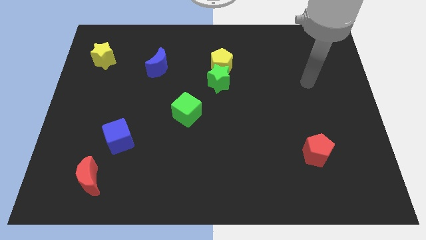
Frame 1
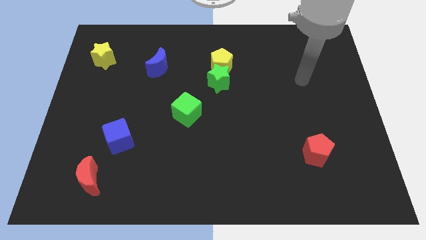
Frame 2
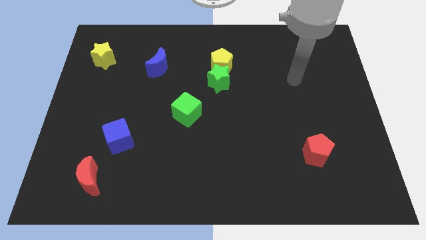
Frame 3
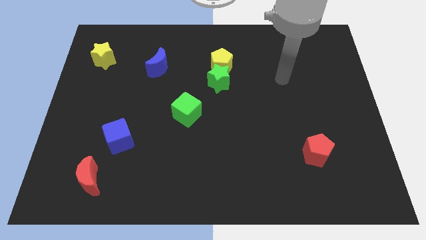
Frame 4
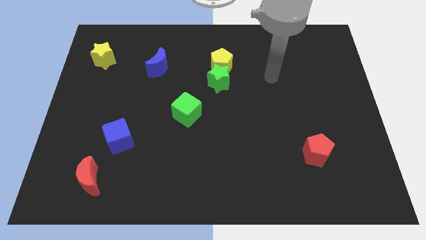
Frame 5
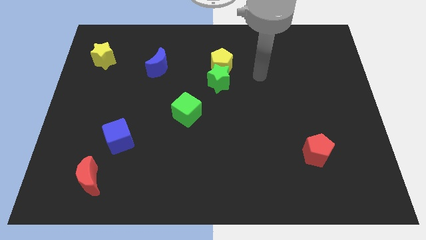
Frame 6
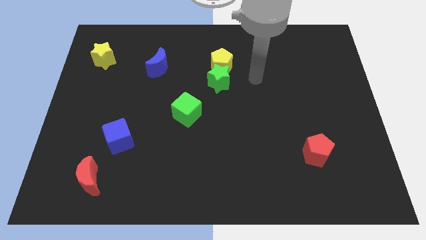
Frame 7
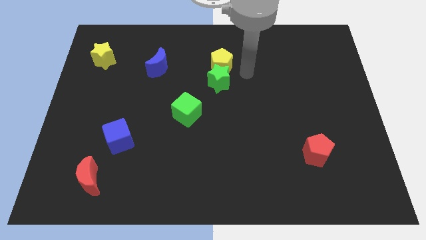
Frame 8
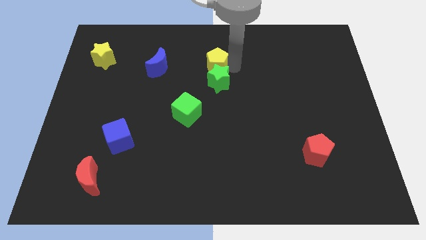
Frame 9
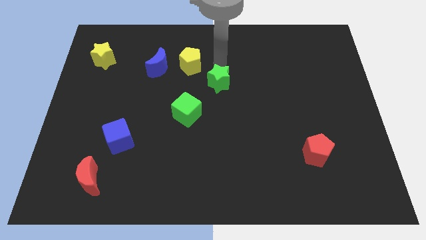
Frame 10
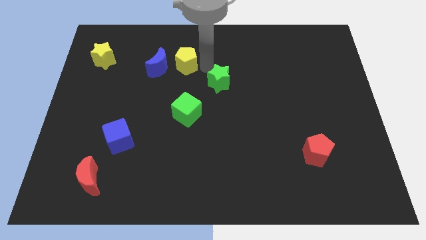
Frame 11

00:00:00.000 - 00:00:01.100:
move the green star away from the yellow pentagon

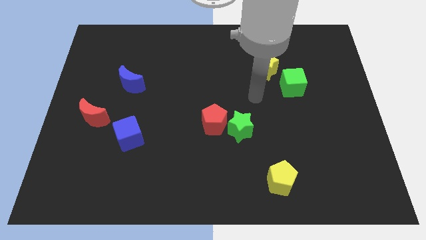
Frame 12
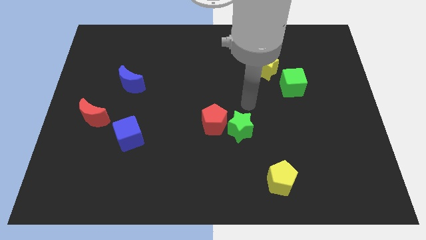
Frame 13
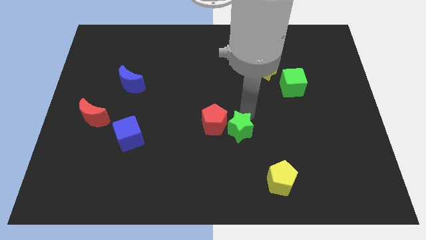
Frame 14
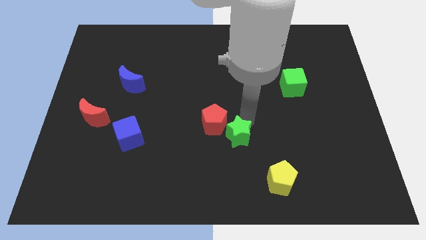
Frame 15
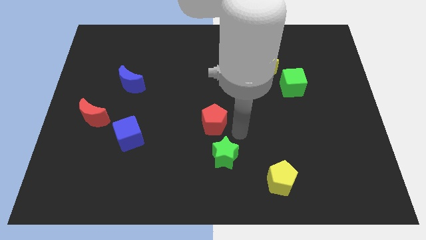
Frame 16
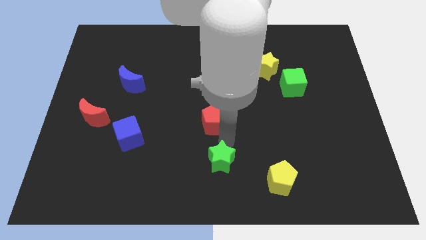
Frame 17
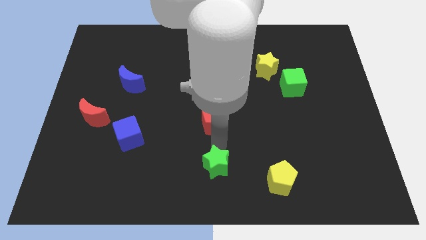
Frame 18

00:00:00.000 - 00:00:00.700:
move the red pentagon away from the green star

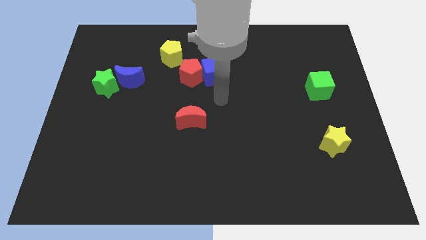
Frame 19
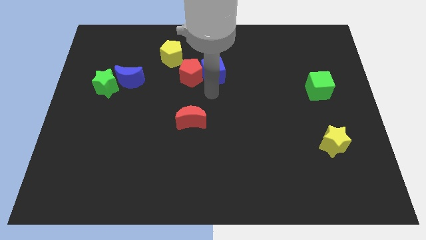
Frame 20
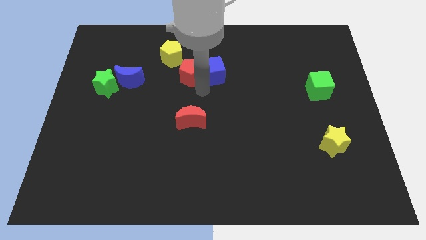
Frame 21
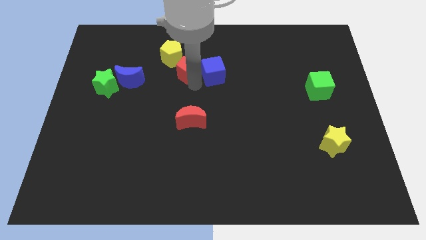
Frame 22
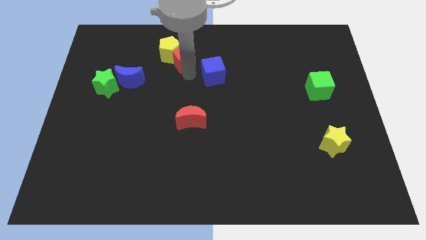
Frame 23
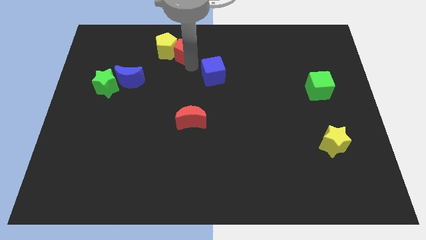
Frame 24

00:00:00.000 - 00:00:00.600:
move the blue cube away from the red pentagon

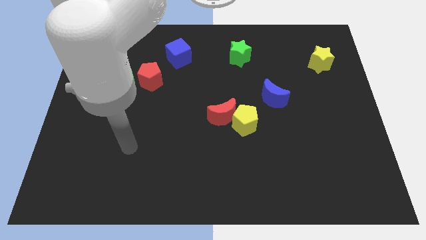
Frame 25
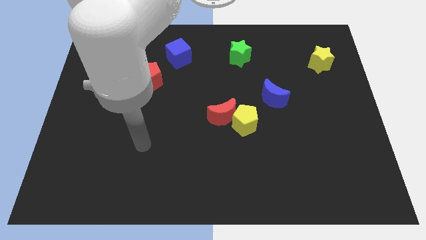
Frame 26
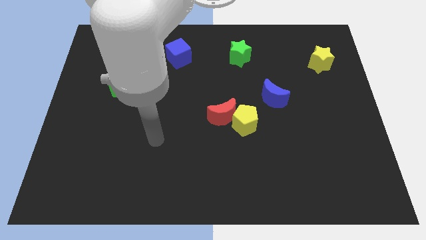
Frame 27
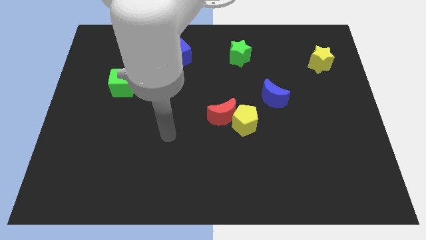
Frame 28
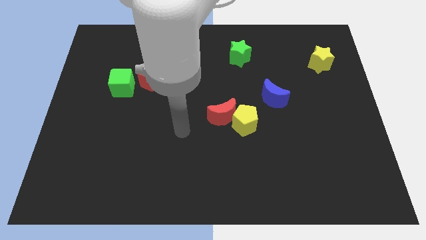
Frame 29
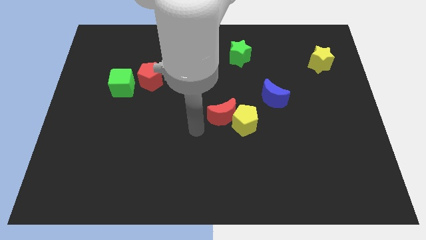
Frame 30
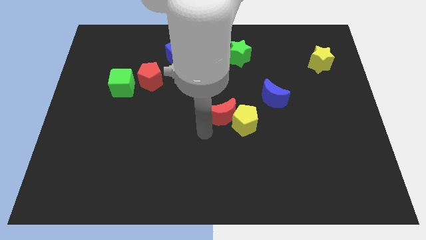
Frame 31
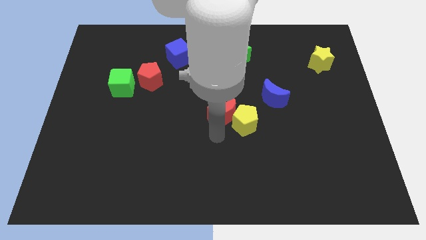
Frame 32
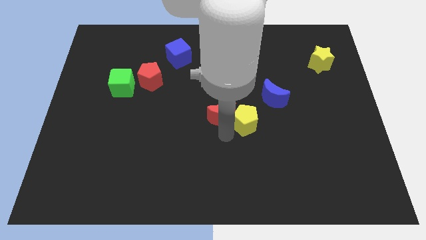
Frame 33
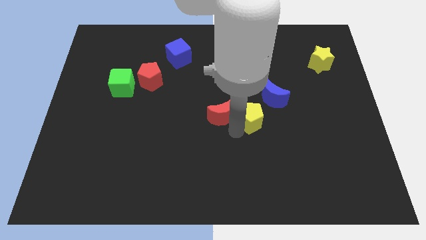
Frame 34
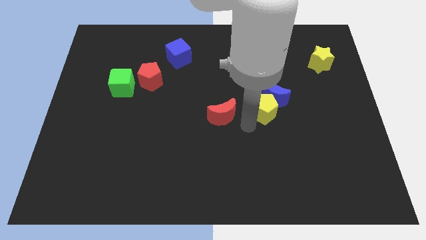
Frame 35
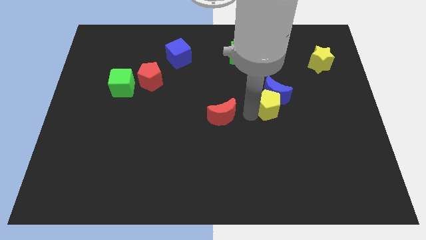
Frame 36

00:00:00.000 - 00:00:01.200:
pull the red moon apart from the yellow pentagon

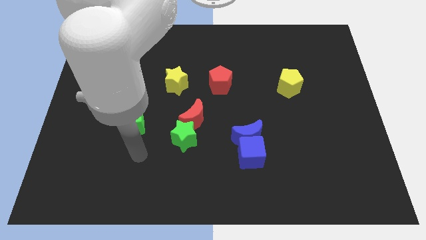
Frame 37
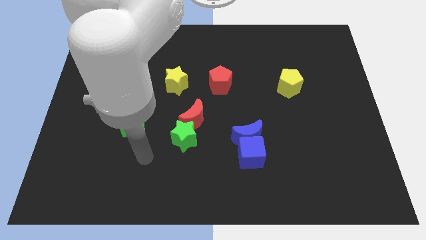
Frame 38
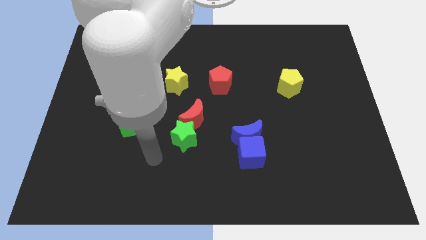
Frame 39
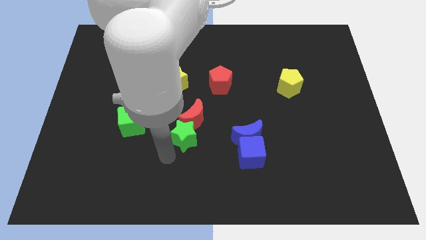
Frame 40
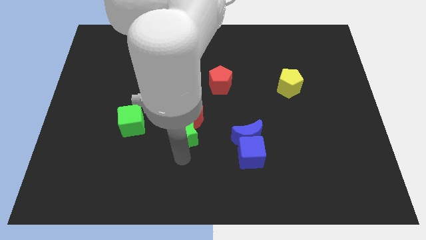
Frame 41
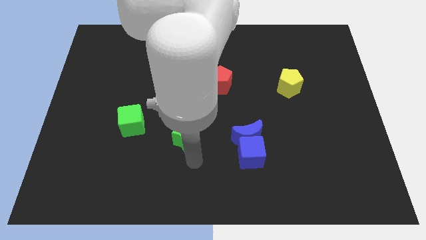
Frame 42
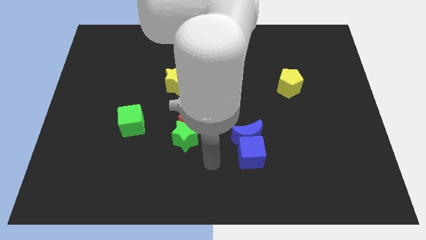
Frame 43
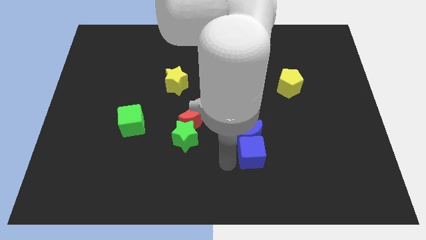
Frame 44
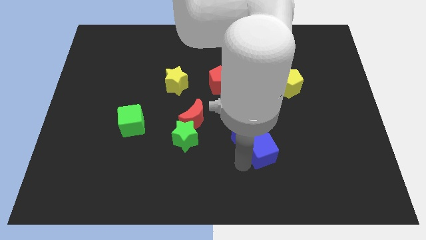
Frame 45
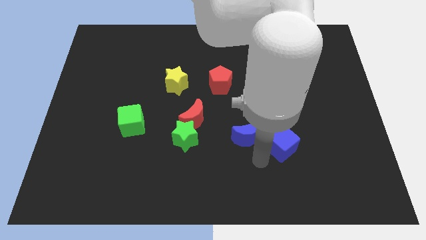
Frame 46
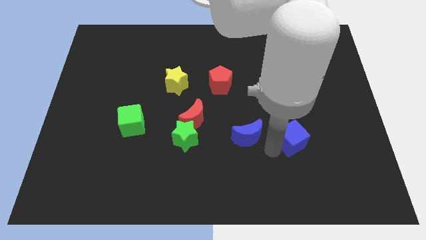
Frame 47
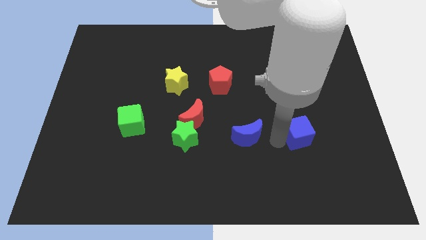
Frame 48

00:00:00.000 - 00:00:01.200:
separate the blue moon from the blue cube

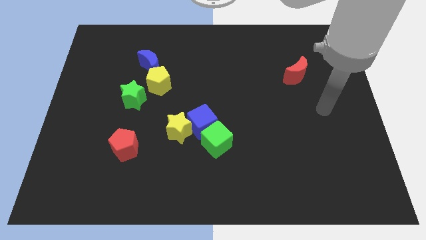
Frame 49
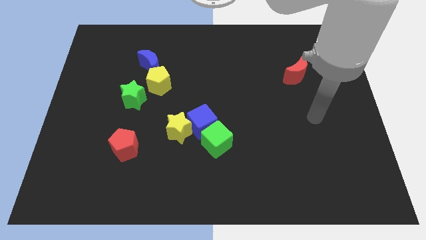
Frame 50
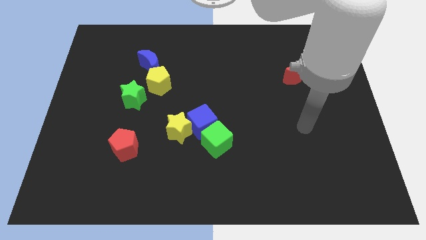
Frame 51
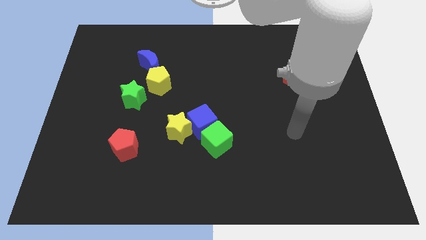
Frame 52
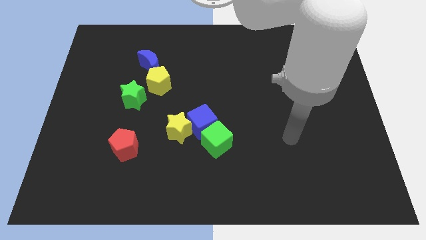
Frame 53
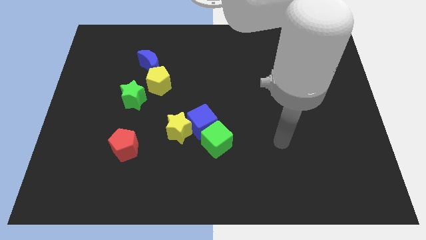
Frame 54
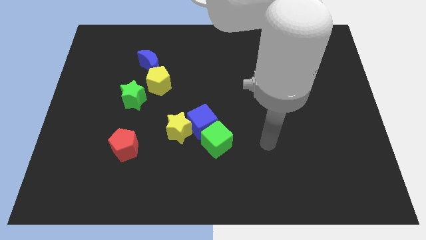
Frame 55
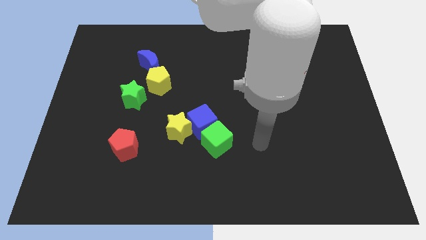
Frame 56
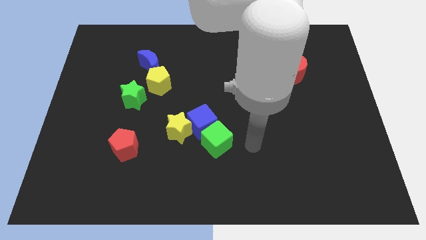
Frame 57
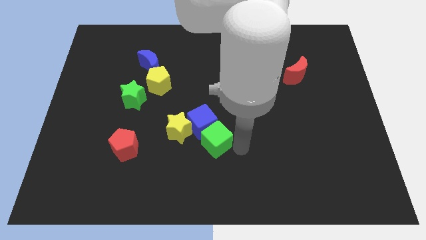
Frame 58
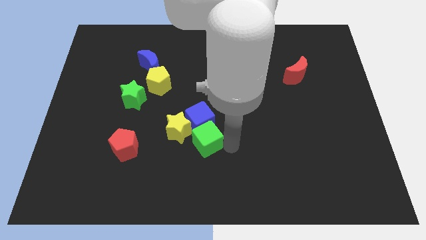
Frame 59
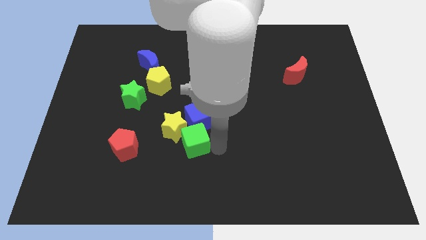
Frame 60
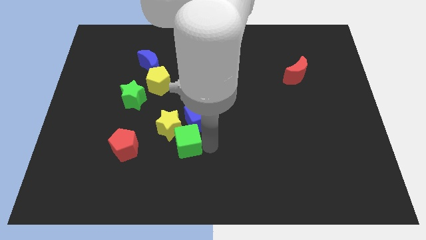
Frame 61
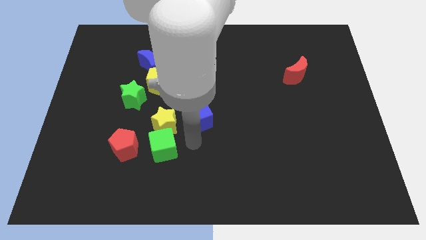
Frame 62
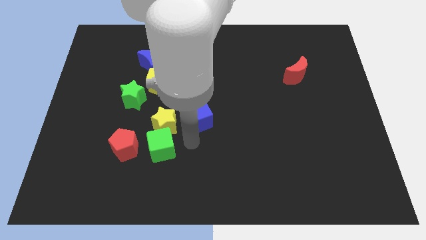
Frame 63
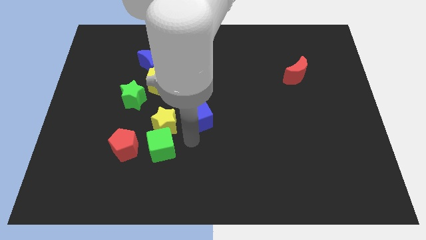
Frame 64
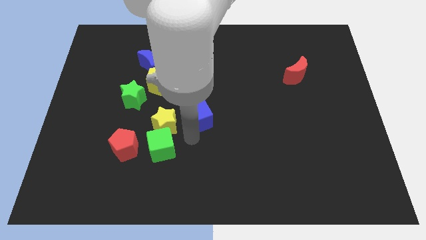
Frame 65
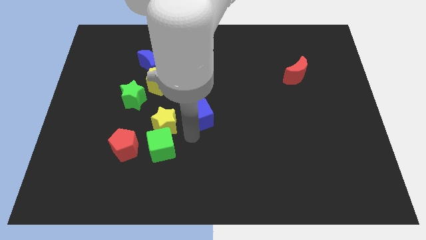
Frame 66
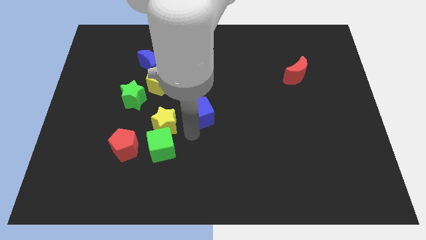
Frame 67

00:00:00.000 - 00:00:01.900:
move the blue cube away from the green cube and yellow star

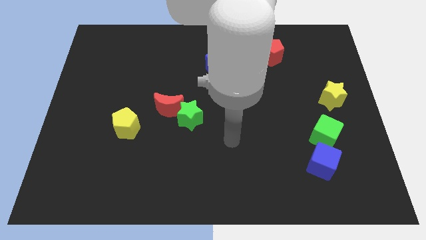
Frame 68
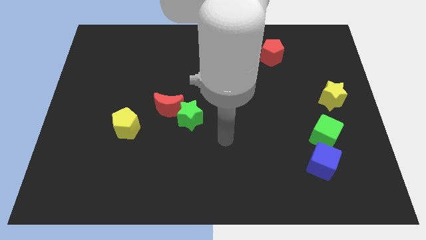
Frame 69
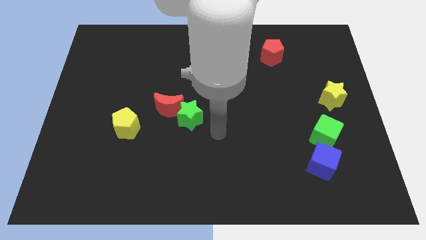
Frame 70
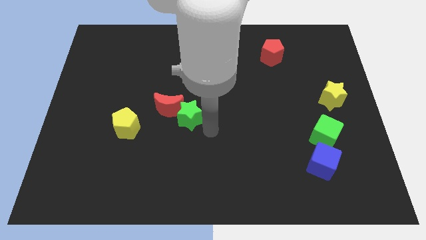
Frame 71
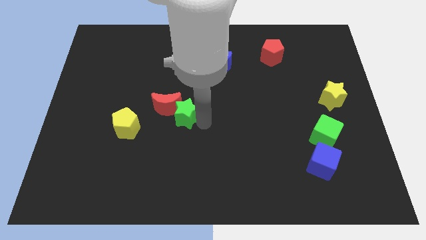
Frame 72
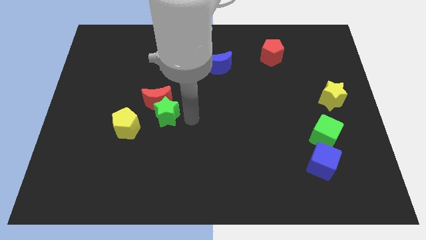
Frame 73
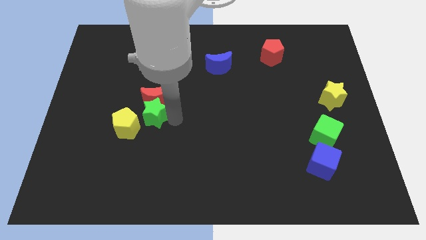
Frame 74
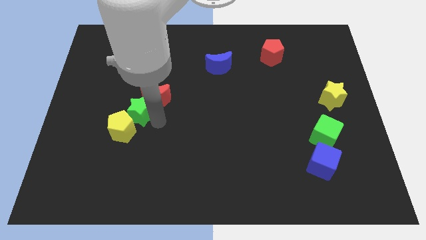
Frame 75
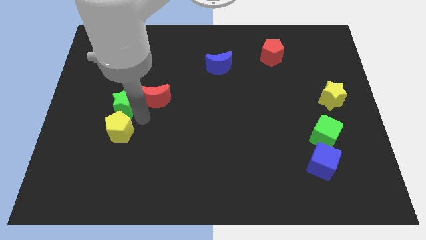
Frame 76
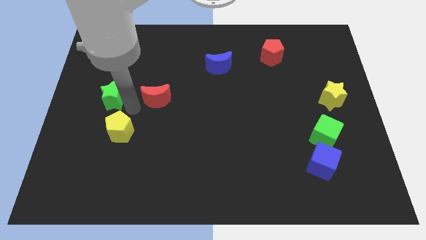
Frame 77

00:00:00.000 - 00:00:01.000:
separate the red moon from the green star

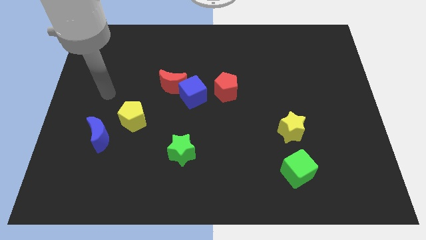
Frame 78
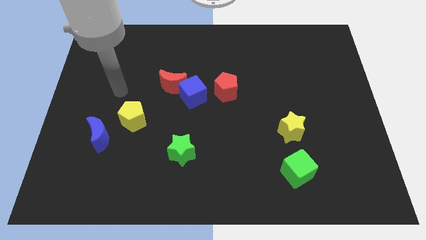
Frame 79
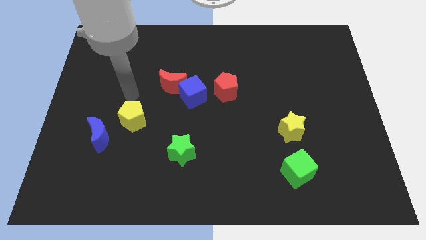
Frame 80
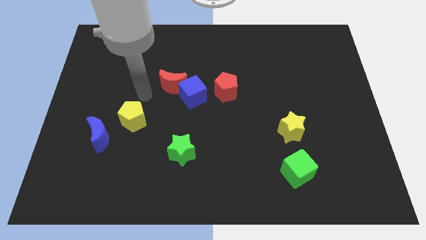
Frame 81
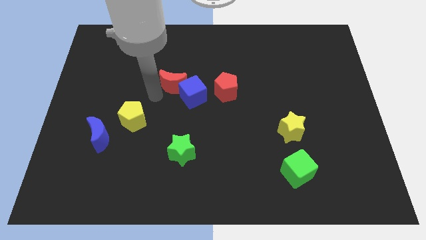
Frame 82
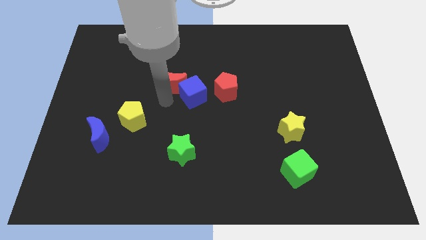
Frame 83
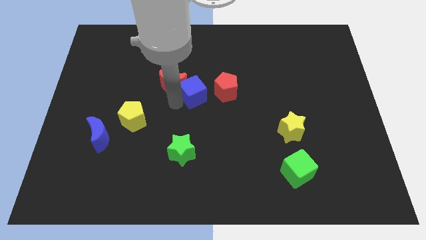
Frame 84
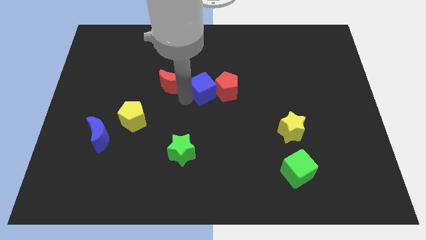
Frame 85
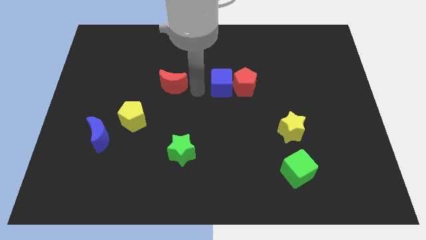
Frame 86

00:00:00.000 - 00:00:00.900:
move the red moon away from the blue cube

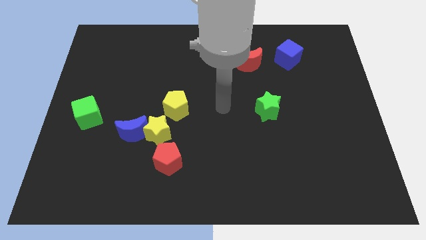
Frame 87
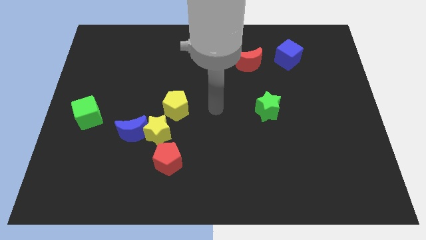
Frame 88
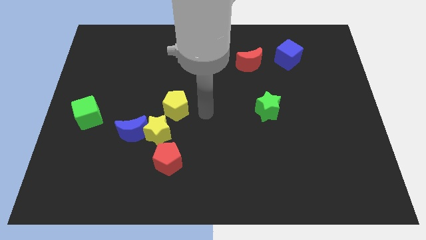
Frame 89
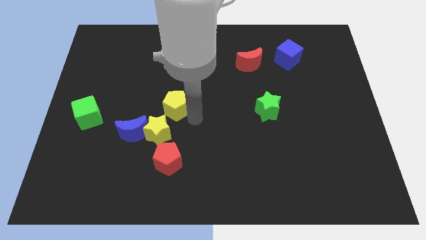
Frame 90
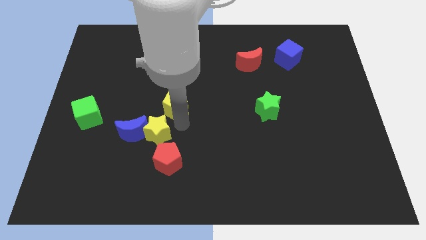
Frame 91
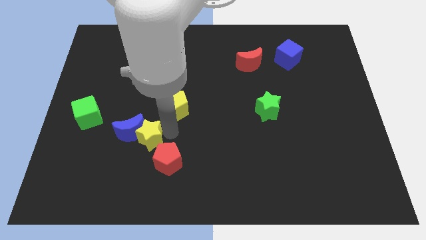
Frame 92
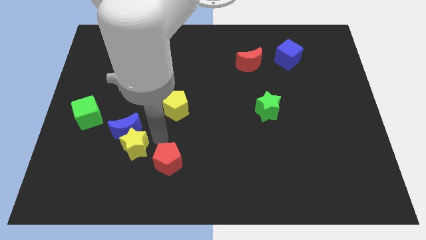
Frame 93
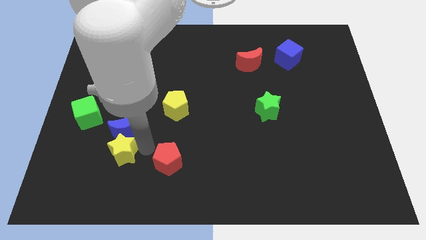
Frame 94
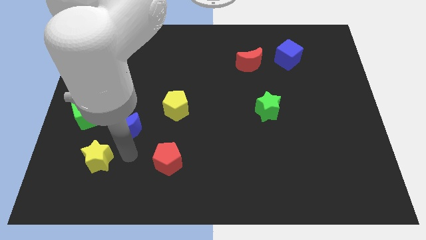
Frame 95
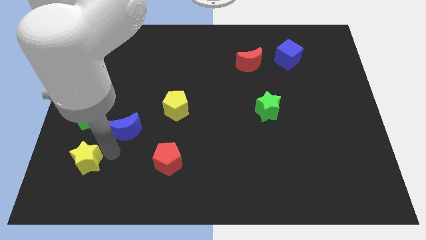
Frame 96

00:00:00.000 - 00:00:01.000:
move the blue moon away from the yellow star
